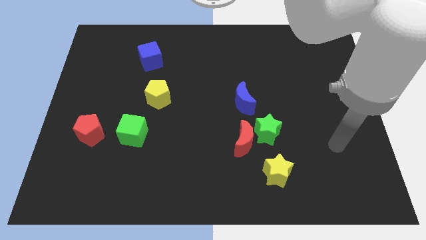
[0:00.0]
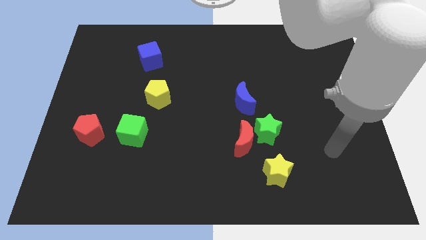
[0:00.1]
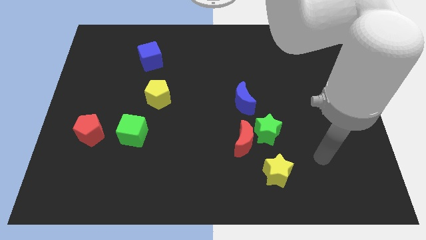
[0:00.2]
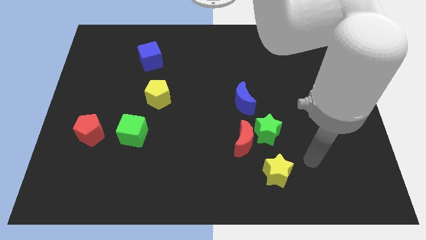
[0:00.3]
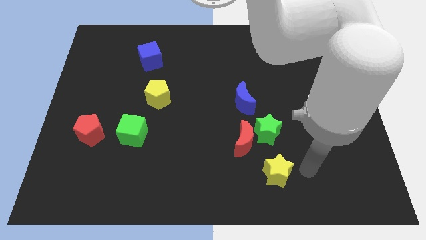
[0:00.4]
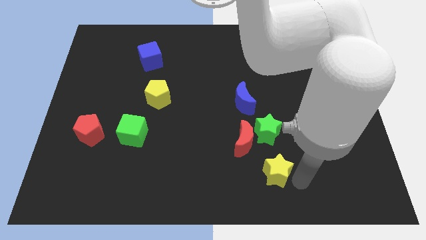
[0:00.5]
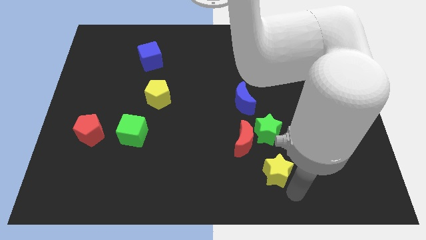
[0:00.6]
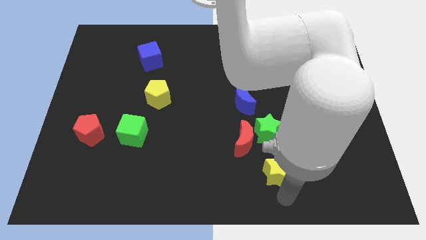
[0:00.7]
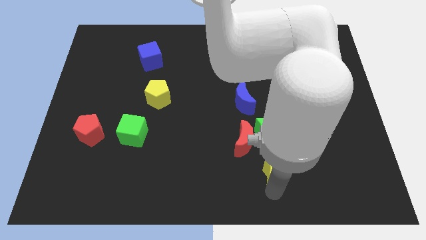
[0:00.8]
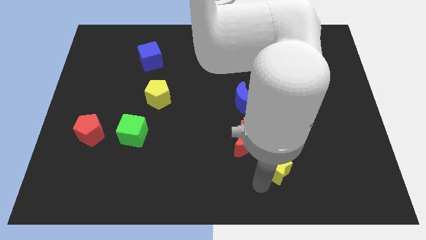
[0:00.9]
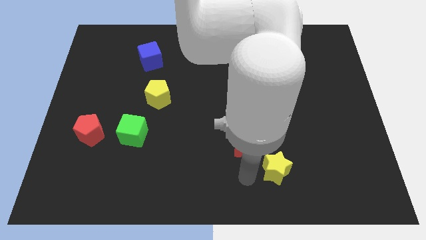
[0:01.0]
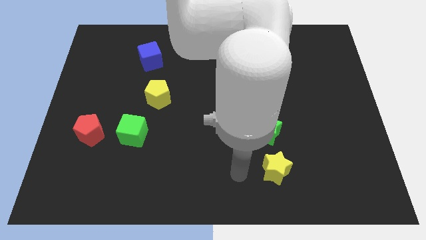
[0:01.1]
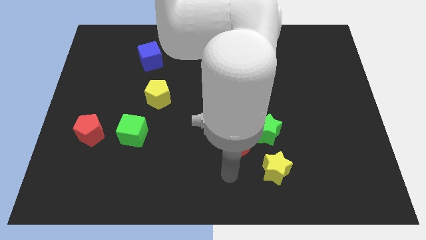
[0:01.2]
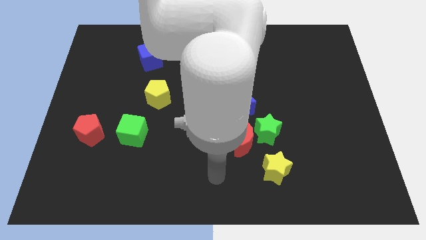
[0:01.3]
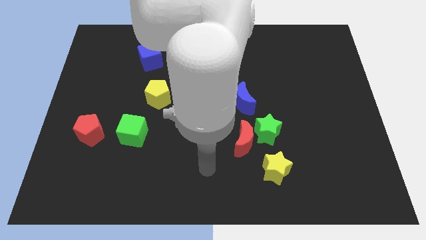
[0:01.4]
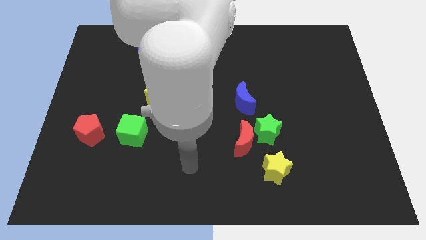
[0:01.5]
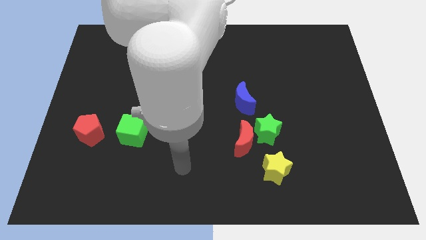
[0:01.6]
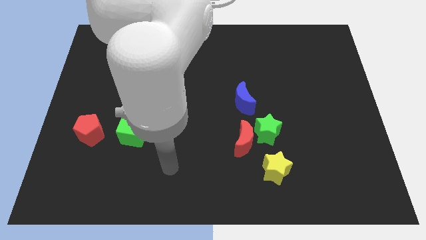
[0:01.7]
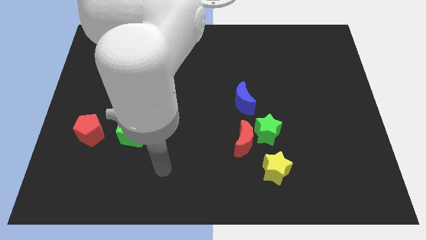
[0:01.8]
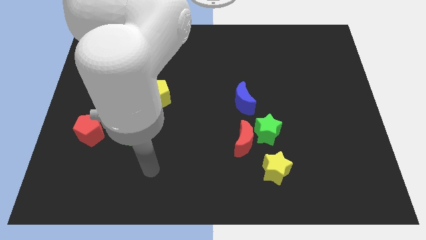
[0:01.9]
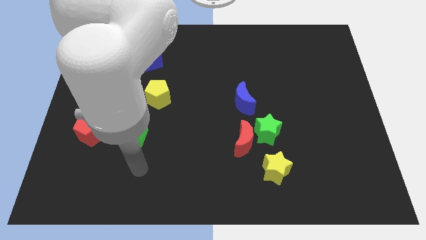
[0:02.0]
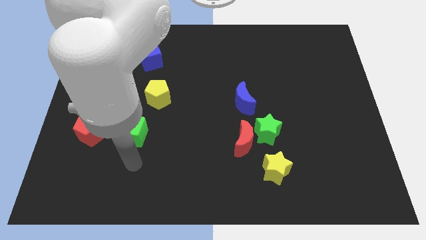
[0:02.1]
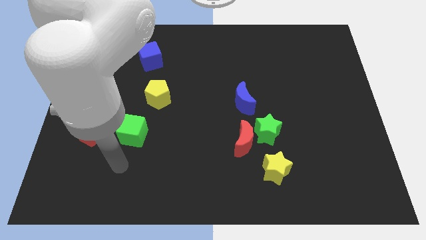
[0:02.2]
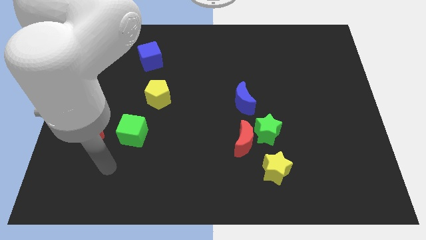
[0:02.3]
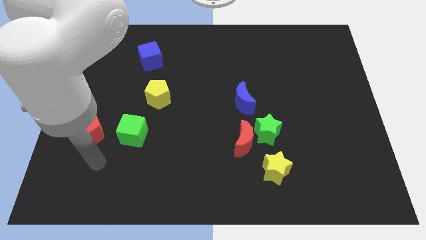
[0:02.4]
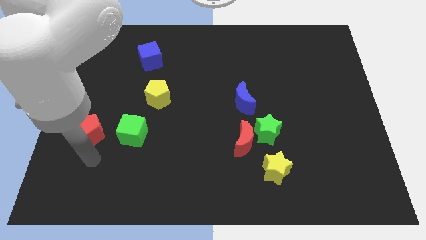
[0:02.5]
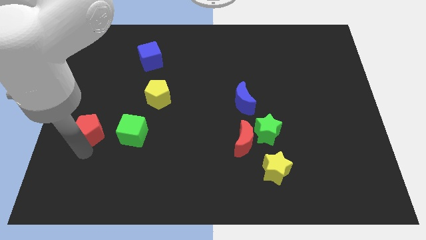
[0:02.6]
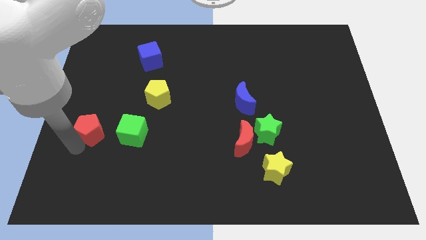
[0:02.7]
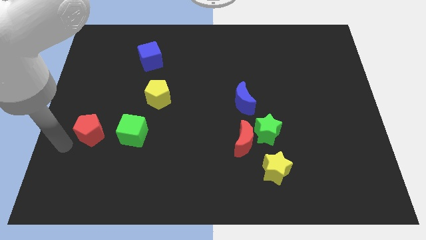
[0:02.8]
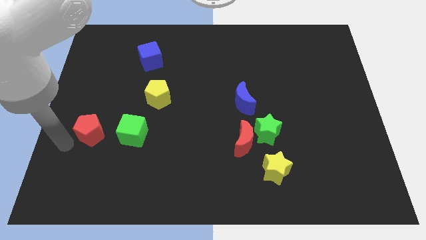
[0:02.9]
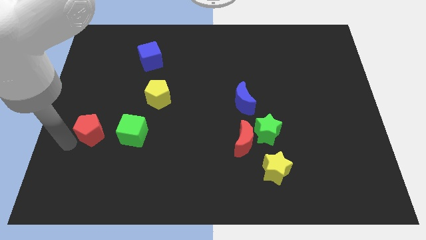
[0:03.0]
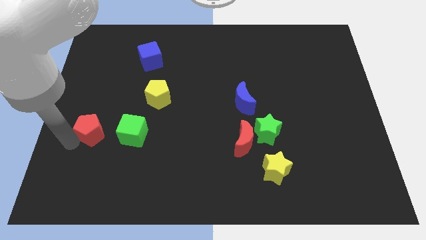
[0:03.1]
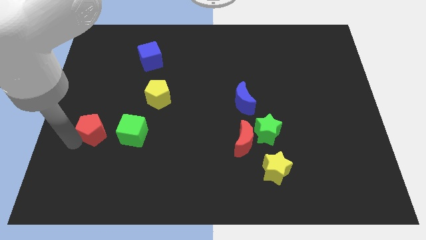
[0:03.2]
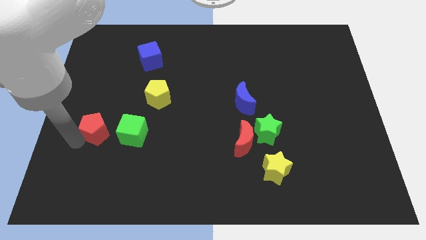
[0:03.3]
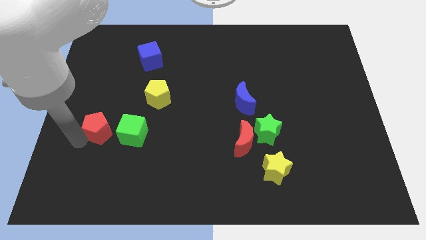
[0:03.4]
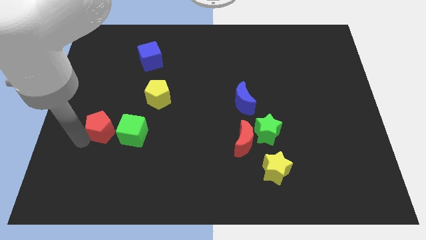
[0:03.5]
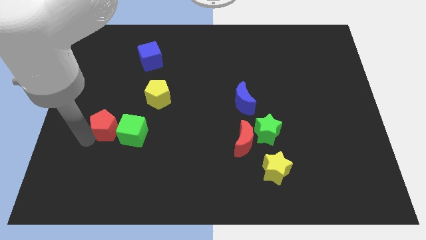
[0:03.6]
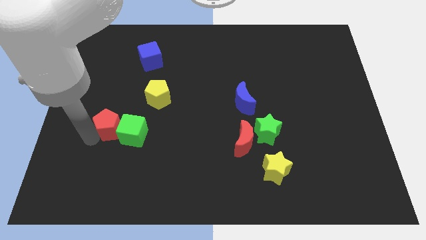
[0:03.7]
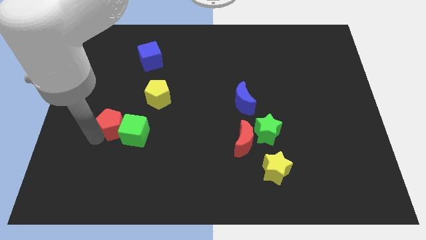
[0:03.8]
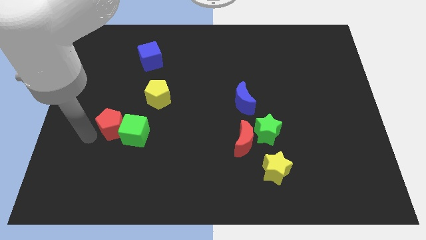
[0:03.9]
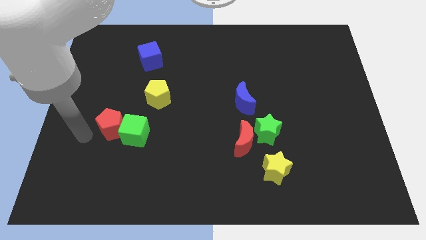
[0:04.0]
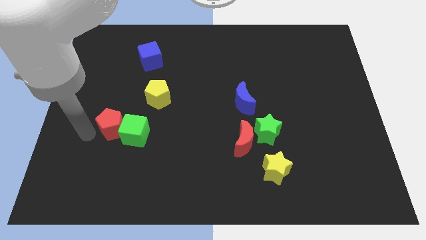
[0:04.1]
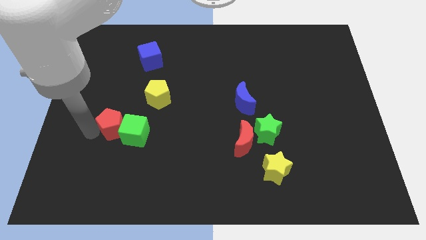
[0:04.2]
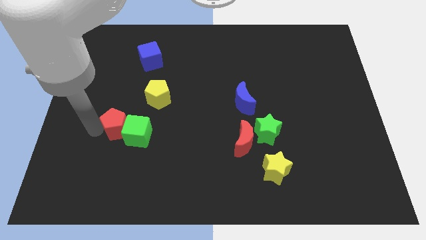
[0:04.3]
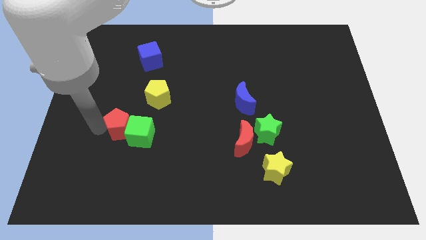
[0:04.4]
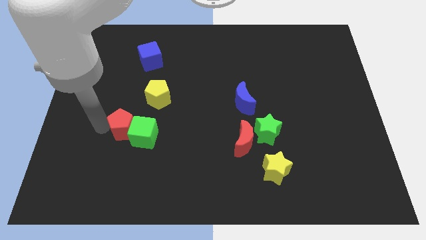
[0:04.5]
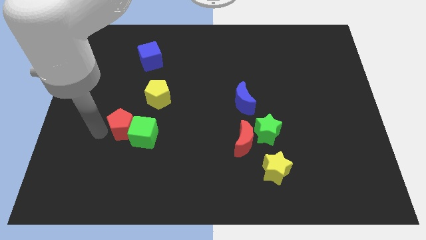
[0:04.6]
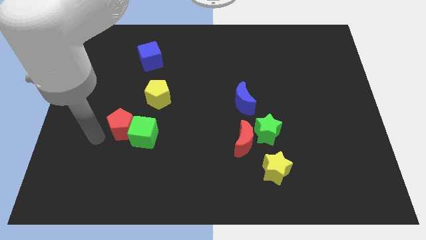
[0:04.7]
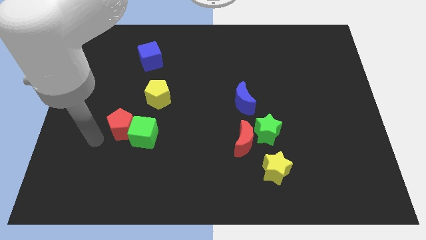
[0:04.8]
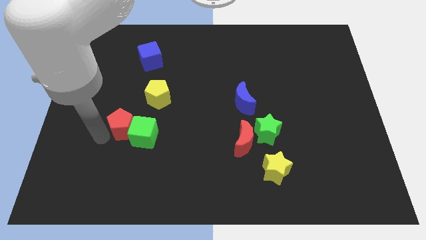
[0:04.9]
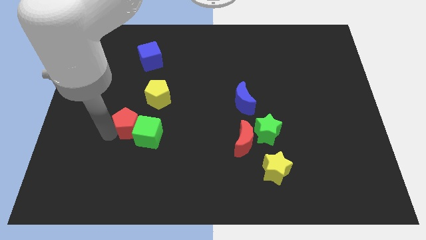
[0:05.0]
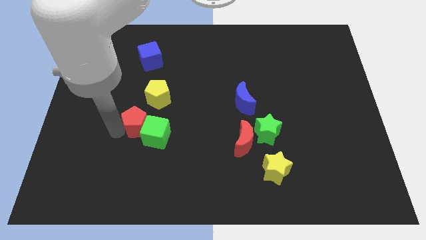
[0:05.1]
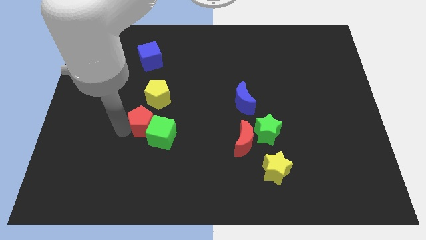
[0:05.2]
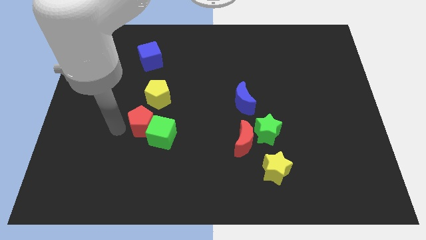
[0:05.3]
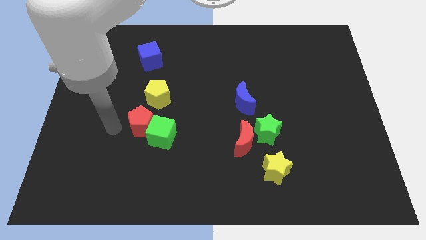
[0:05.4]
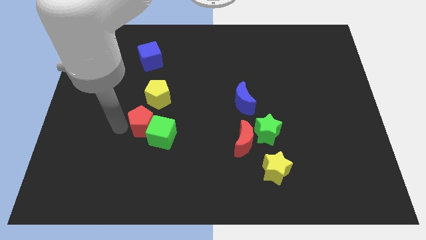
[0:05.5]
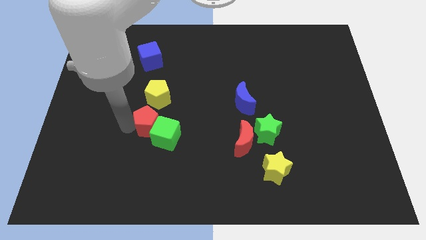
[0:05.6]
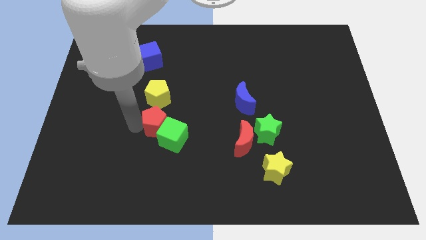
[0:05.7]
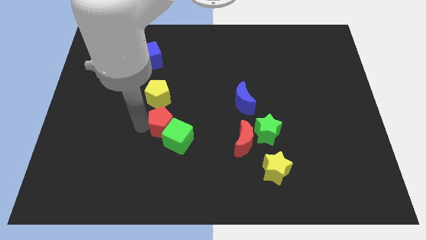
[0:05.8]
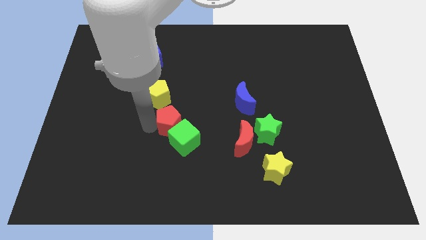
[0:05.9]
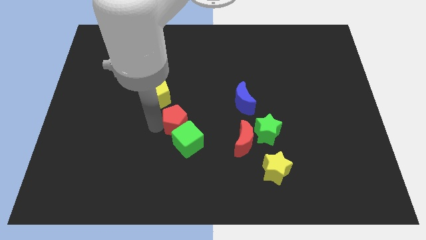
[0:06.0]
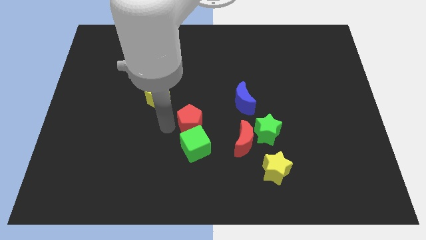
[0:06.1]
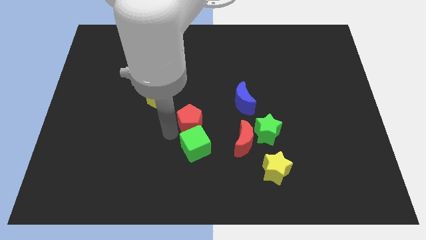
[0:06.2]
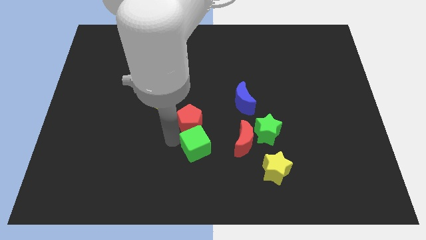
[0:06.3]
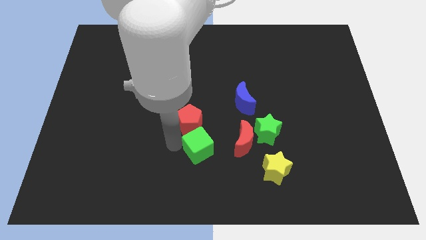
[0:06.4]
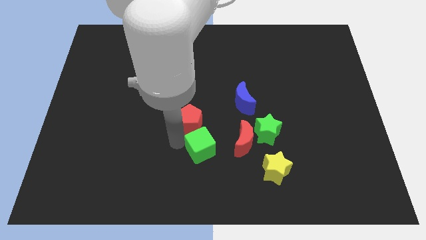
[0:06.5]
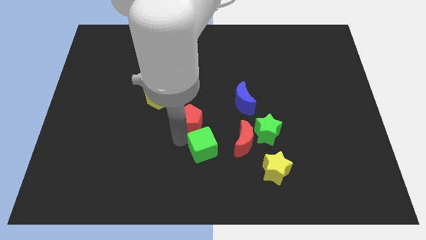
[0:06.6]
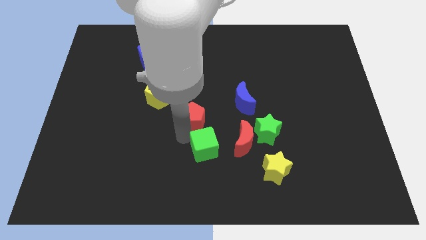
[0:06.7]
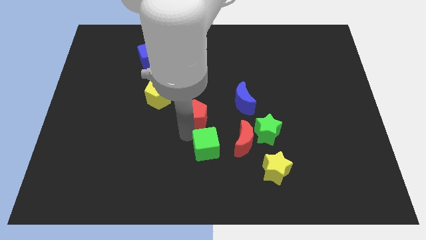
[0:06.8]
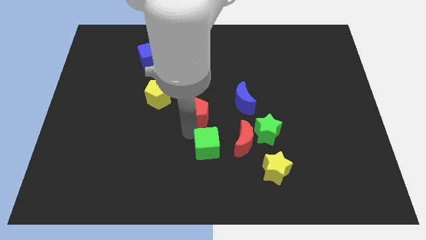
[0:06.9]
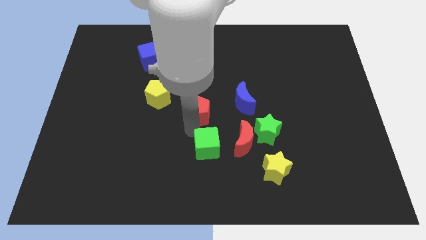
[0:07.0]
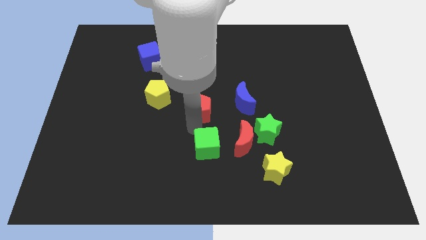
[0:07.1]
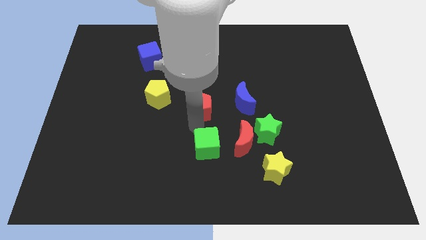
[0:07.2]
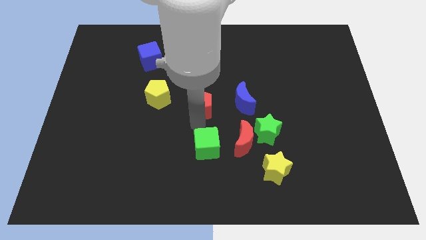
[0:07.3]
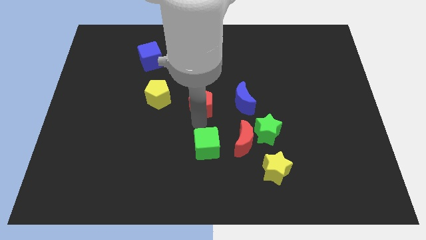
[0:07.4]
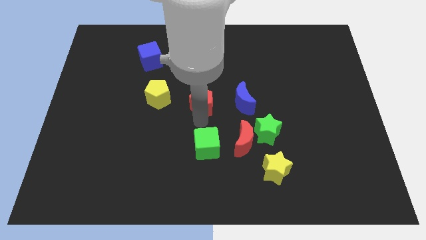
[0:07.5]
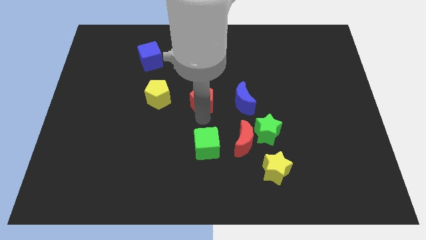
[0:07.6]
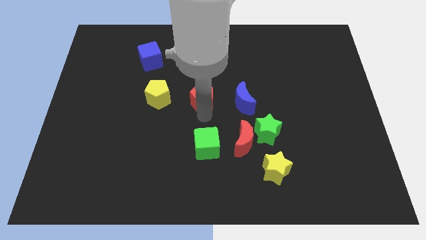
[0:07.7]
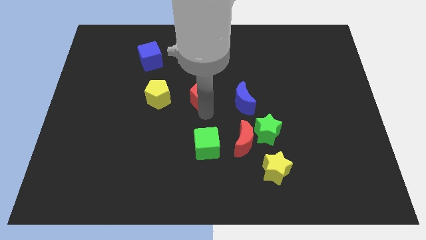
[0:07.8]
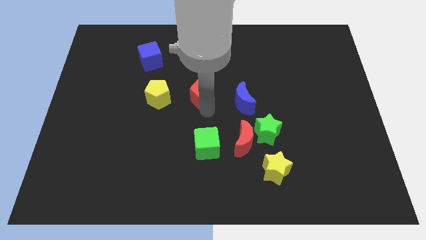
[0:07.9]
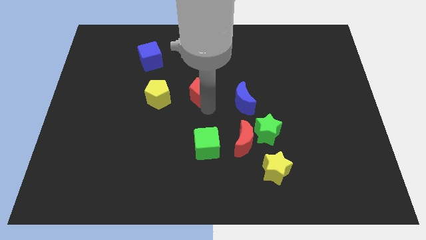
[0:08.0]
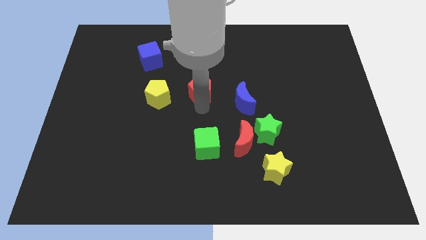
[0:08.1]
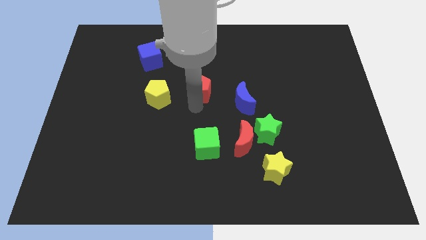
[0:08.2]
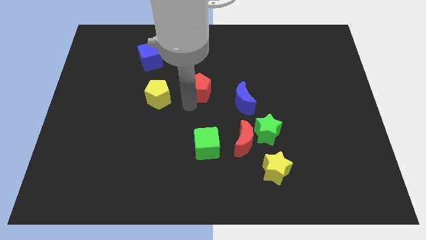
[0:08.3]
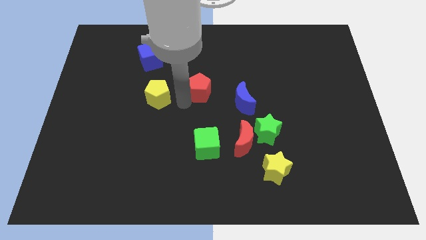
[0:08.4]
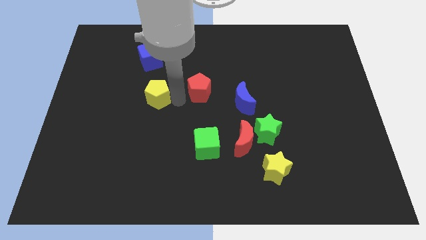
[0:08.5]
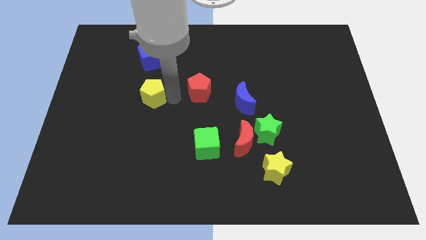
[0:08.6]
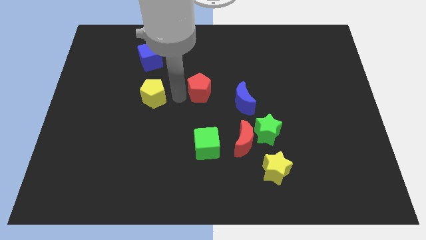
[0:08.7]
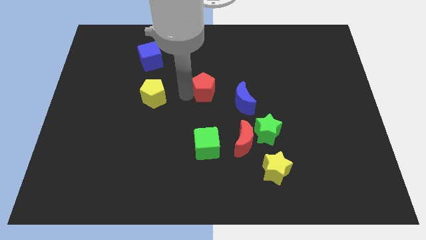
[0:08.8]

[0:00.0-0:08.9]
move the red pentagon to the top left side of the blue moon
